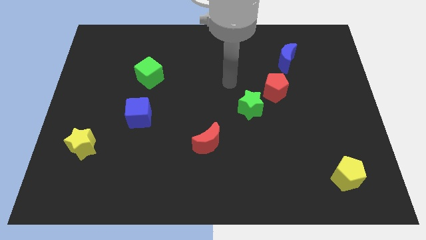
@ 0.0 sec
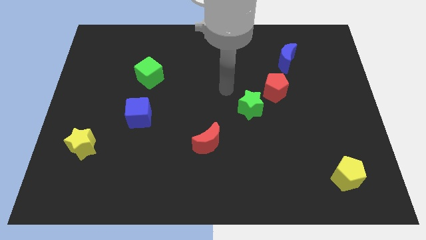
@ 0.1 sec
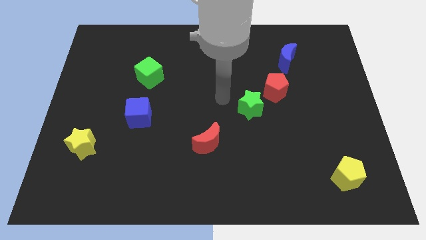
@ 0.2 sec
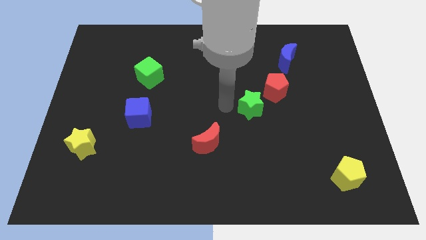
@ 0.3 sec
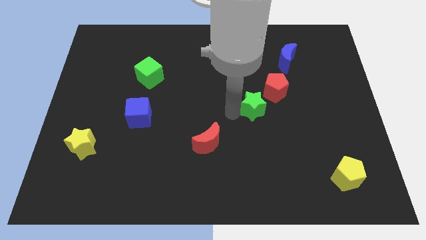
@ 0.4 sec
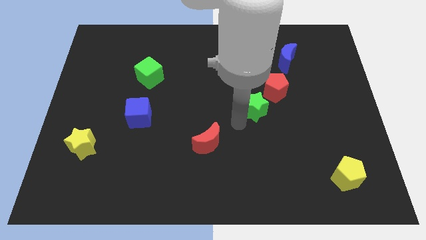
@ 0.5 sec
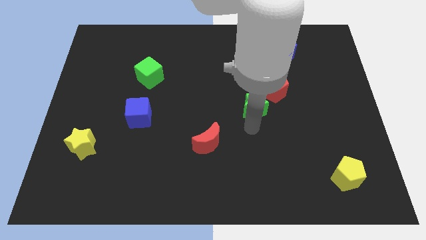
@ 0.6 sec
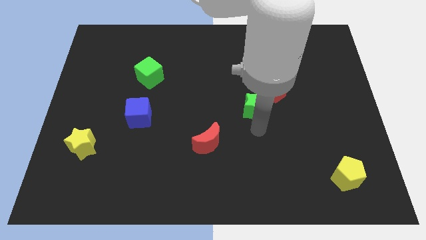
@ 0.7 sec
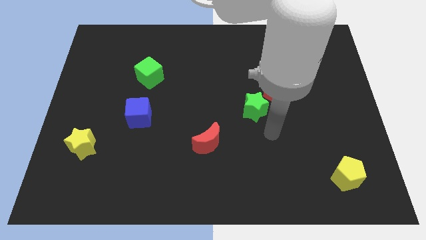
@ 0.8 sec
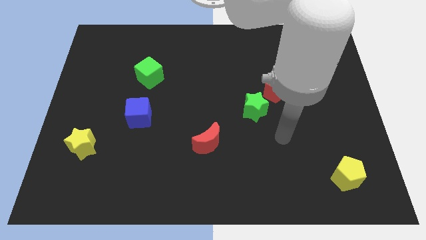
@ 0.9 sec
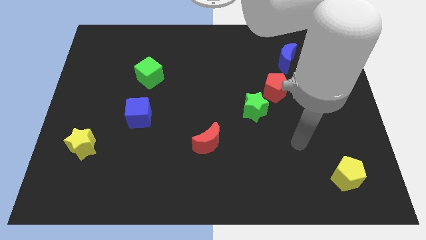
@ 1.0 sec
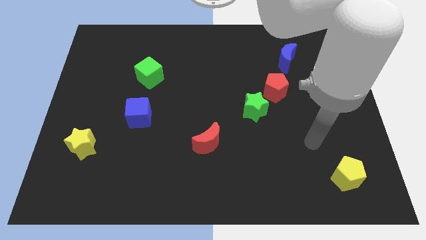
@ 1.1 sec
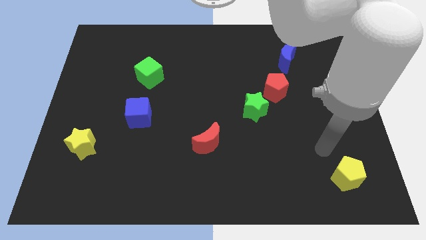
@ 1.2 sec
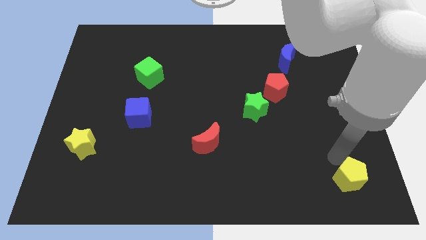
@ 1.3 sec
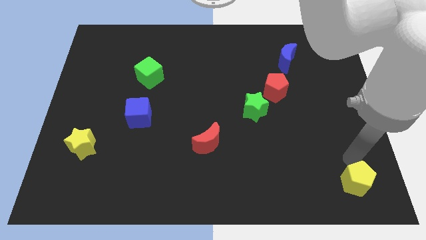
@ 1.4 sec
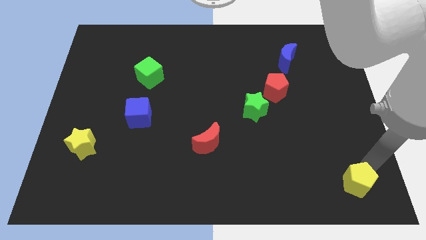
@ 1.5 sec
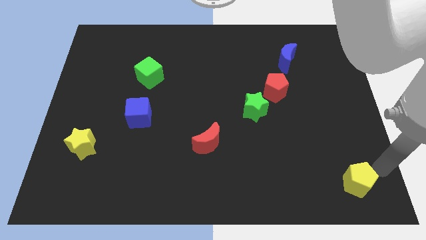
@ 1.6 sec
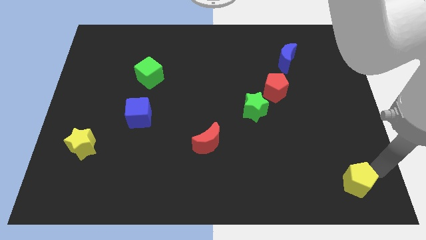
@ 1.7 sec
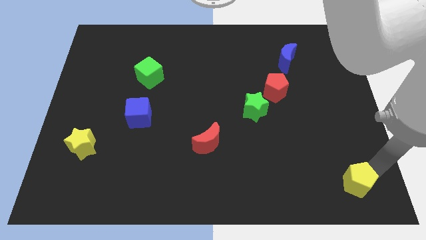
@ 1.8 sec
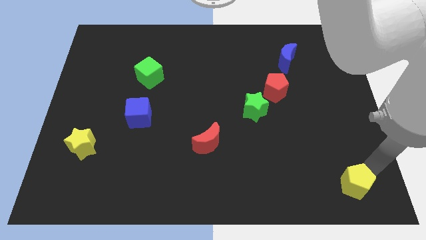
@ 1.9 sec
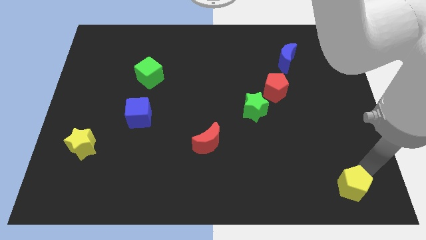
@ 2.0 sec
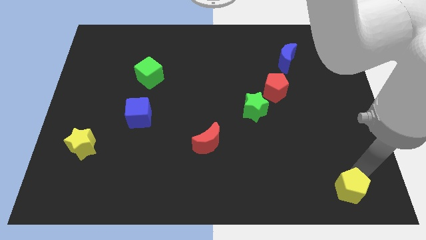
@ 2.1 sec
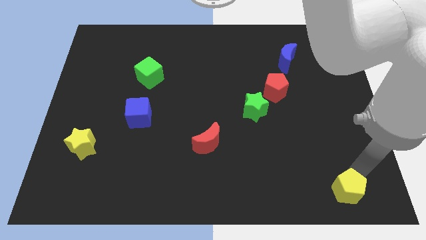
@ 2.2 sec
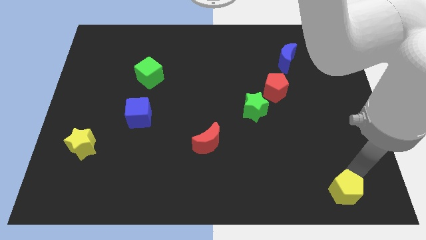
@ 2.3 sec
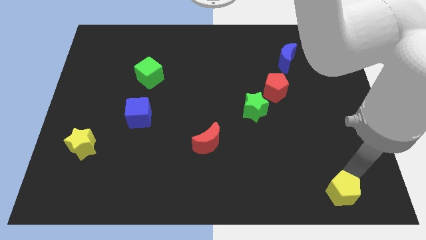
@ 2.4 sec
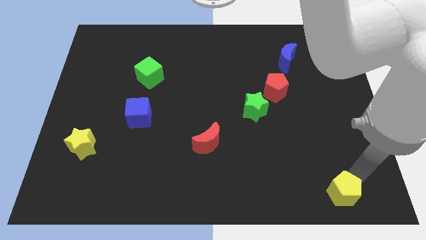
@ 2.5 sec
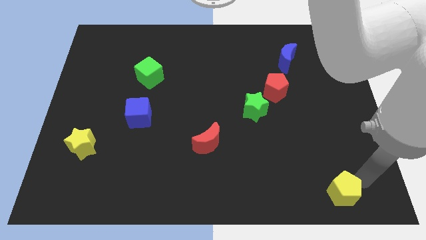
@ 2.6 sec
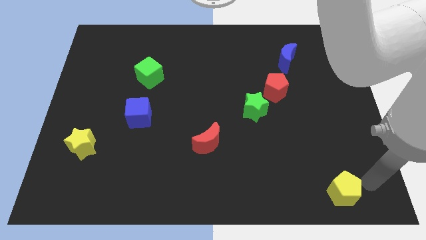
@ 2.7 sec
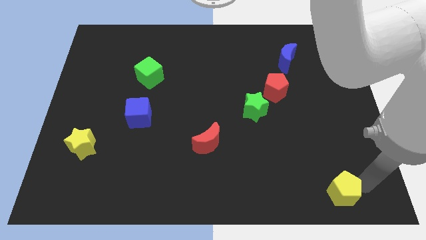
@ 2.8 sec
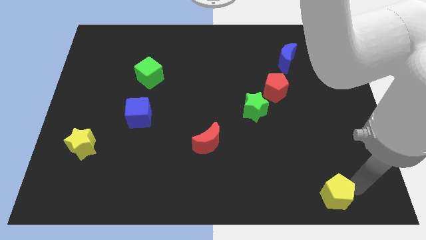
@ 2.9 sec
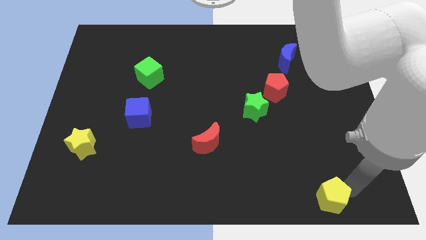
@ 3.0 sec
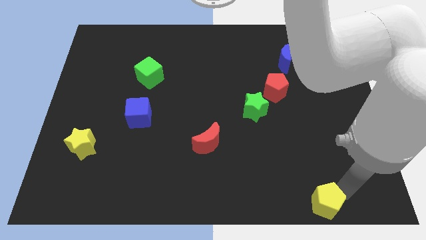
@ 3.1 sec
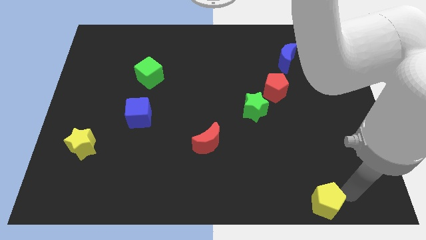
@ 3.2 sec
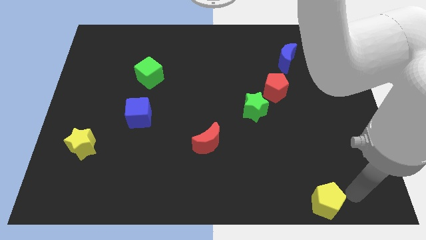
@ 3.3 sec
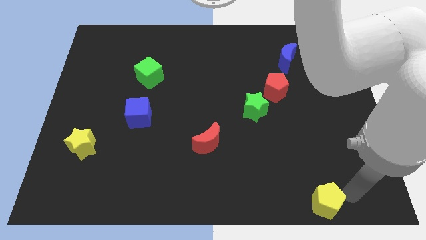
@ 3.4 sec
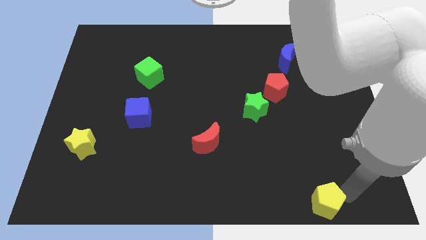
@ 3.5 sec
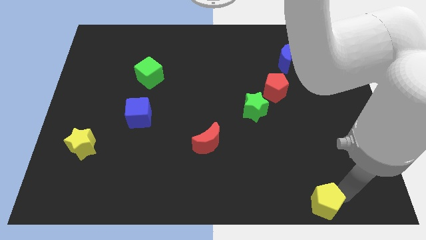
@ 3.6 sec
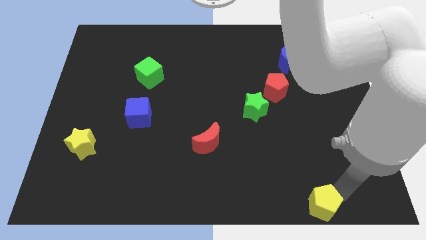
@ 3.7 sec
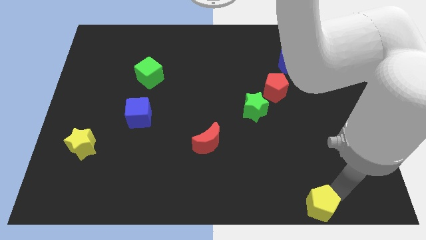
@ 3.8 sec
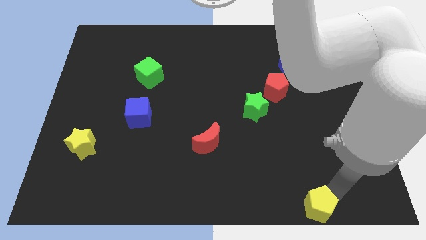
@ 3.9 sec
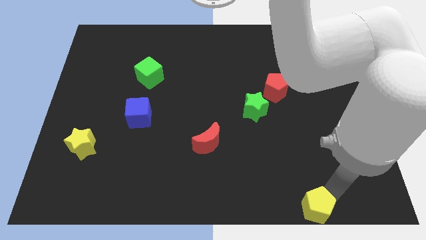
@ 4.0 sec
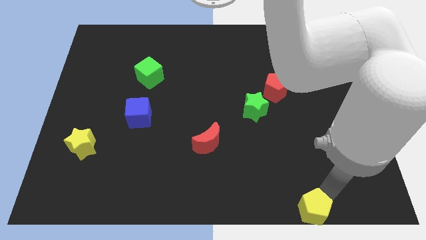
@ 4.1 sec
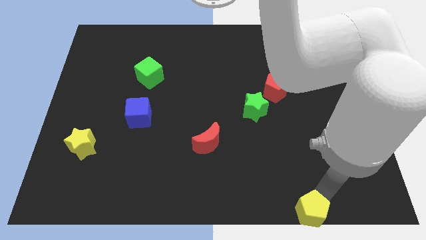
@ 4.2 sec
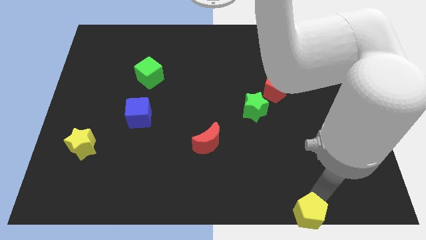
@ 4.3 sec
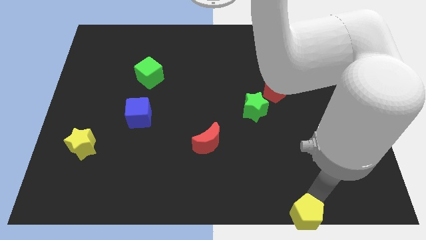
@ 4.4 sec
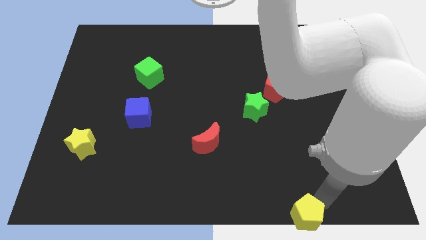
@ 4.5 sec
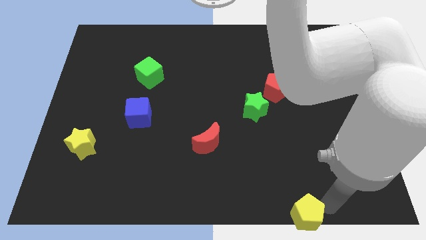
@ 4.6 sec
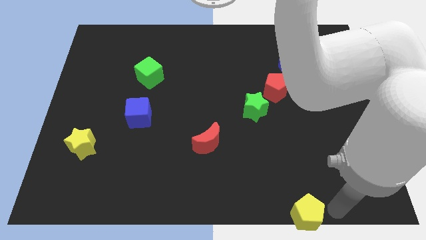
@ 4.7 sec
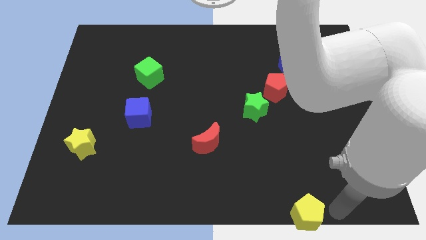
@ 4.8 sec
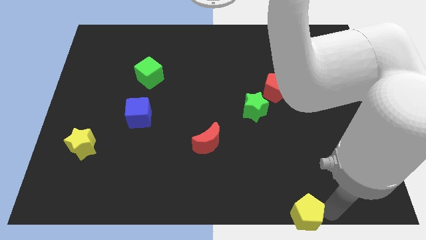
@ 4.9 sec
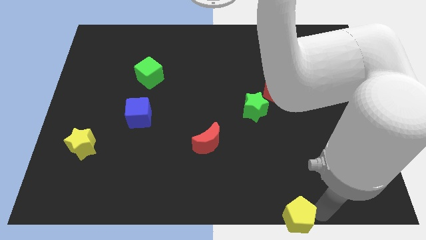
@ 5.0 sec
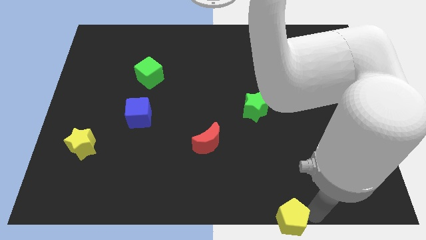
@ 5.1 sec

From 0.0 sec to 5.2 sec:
put the yellow pentagon to the bottom side

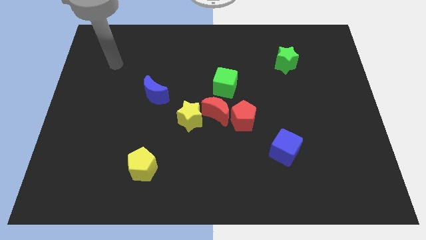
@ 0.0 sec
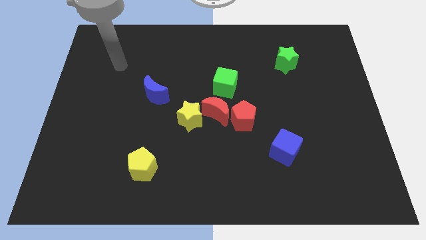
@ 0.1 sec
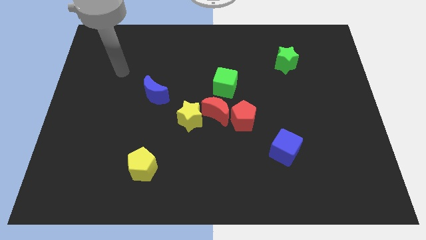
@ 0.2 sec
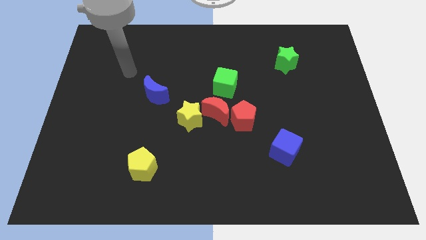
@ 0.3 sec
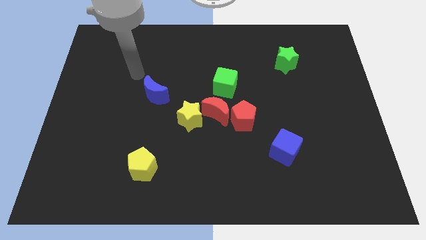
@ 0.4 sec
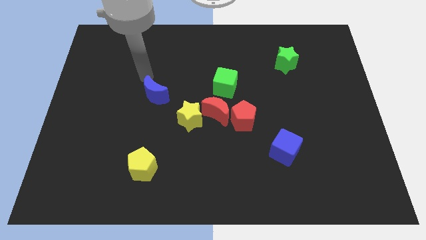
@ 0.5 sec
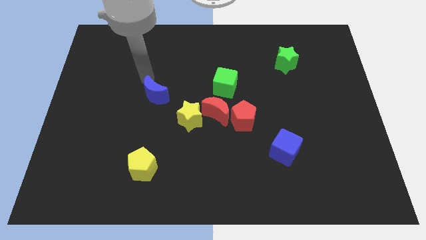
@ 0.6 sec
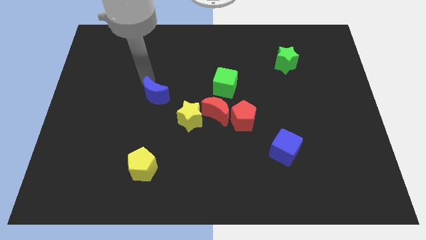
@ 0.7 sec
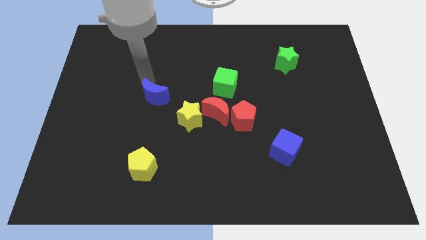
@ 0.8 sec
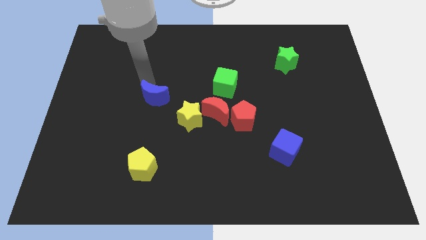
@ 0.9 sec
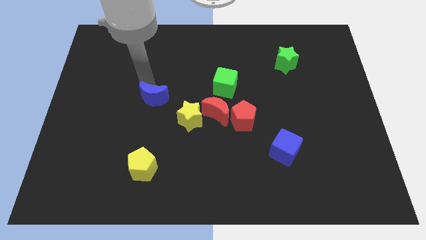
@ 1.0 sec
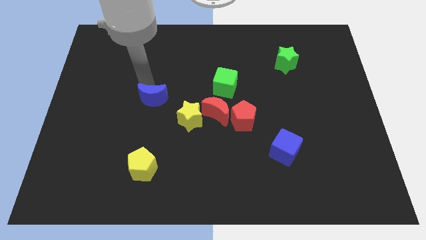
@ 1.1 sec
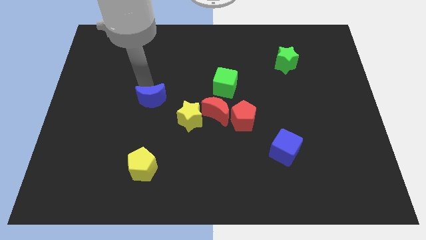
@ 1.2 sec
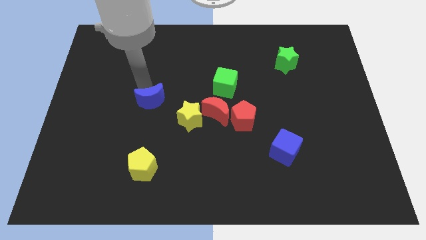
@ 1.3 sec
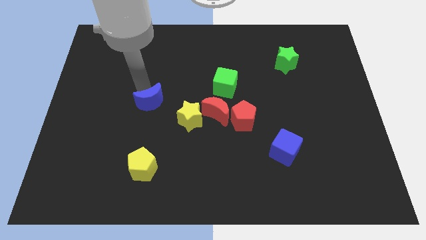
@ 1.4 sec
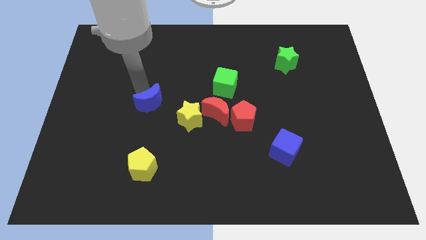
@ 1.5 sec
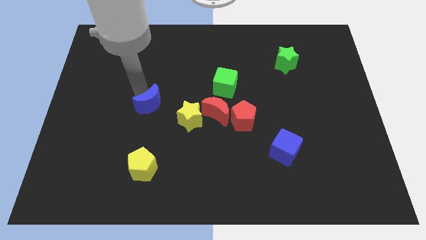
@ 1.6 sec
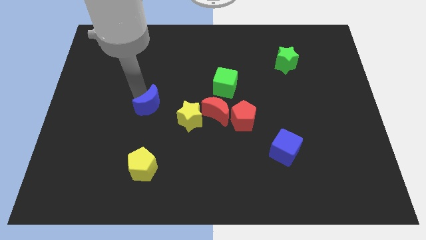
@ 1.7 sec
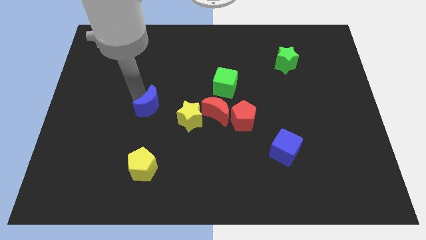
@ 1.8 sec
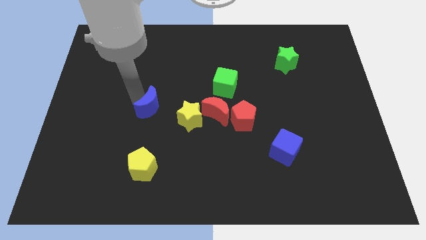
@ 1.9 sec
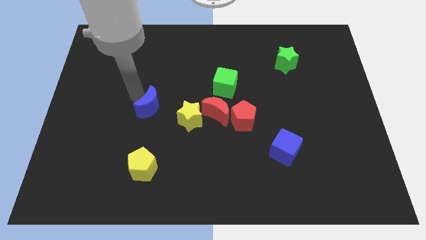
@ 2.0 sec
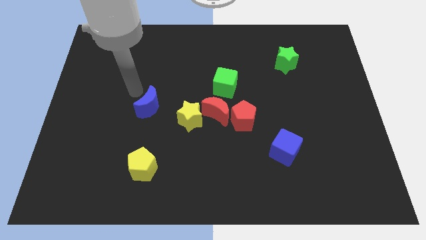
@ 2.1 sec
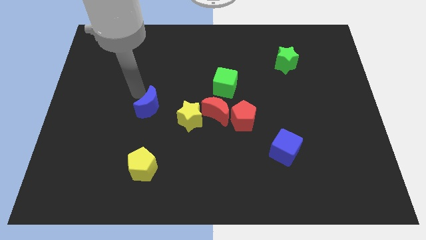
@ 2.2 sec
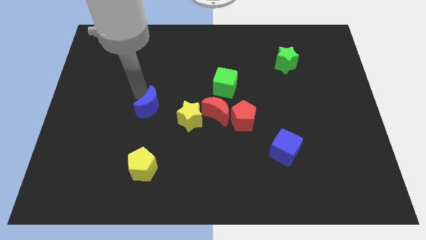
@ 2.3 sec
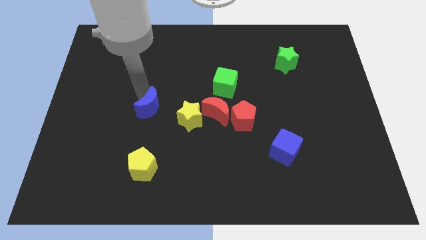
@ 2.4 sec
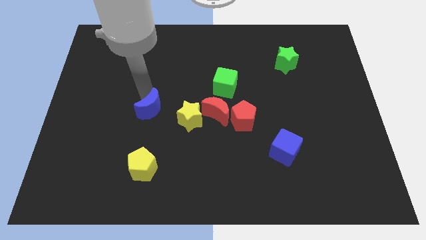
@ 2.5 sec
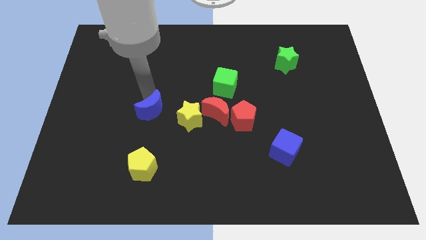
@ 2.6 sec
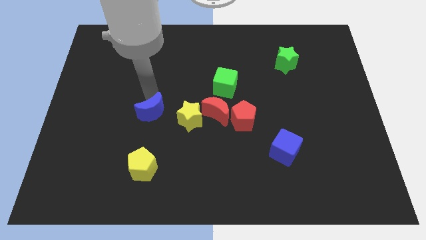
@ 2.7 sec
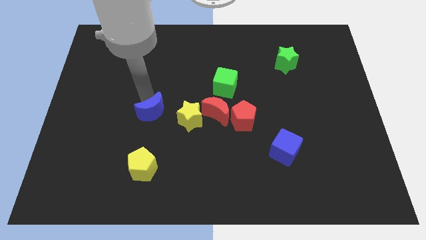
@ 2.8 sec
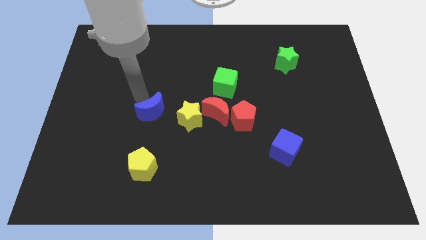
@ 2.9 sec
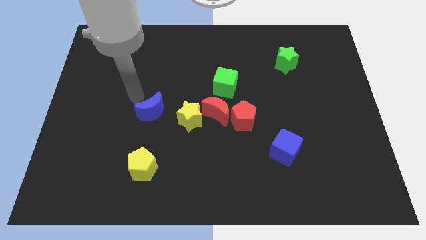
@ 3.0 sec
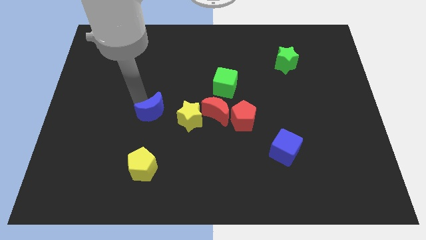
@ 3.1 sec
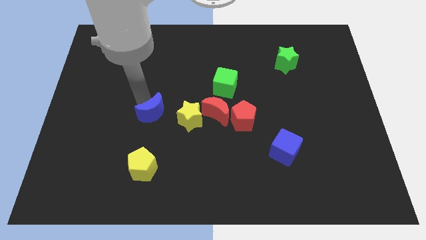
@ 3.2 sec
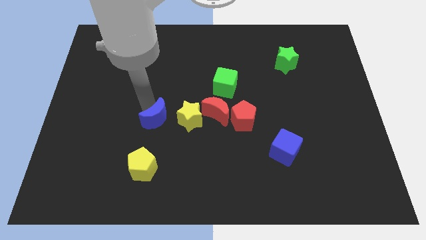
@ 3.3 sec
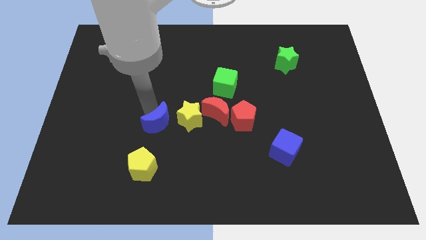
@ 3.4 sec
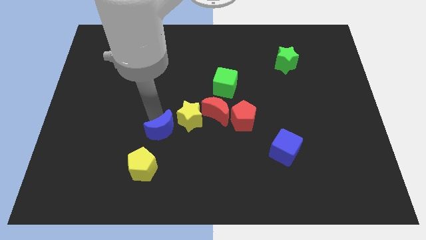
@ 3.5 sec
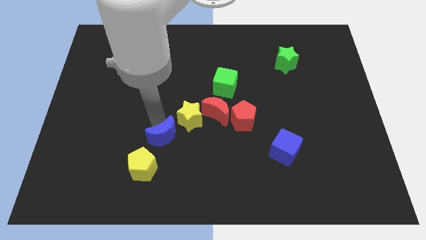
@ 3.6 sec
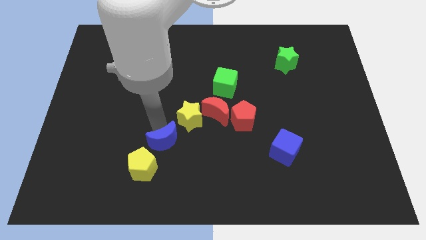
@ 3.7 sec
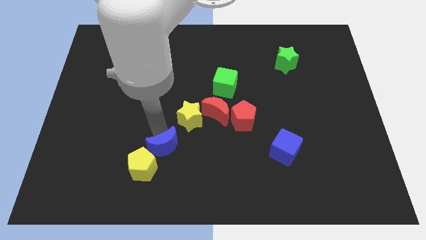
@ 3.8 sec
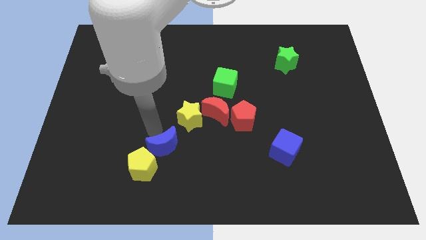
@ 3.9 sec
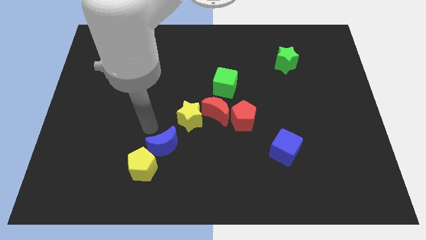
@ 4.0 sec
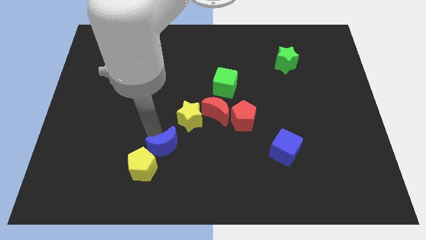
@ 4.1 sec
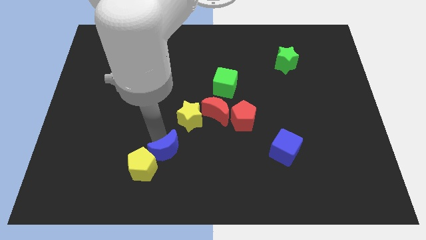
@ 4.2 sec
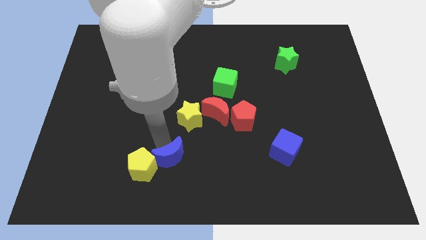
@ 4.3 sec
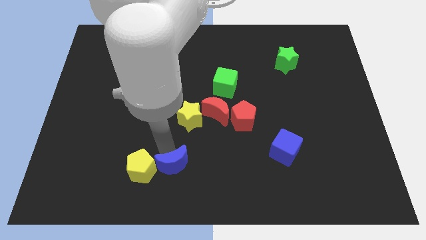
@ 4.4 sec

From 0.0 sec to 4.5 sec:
move the blue moon to the bottom
